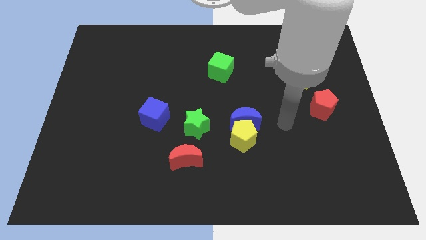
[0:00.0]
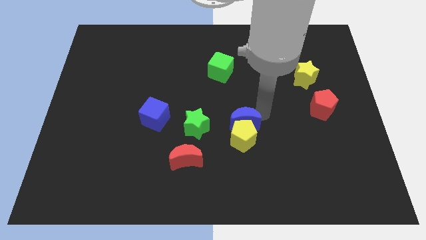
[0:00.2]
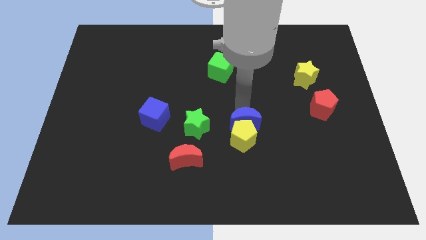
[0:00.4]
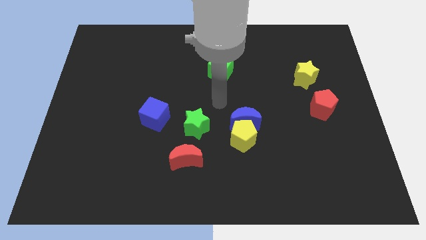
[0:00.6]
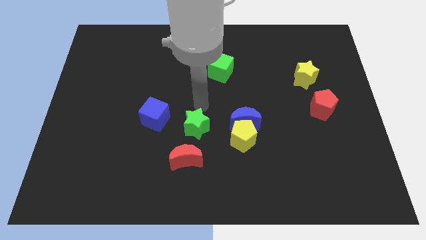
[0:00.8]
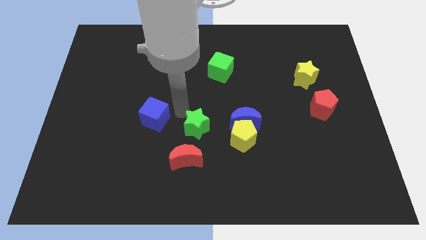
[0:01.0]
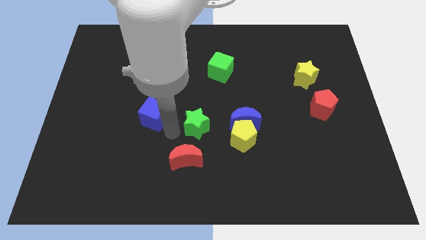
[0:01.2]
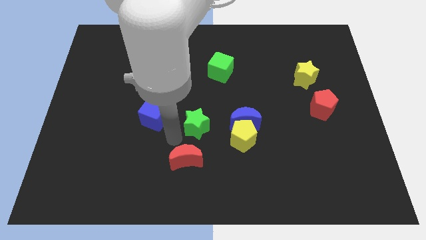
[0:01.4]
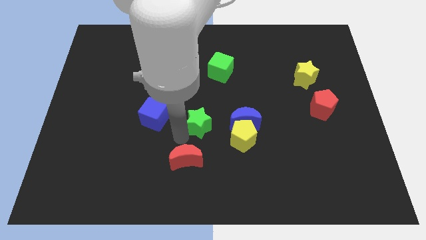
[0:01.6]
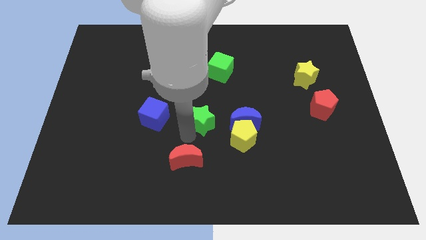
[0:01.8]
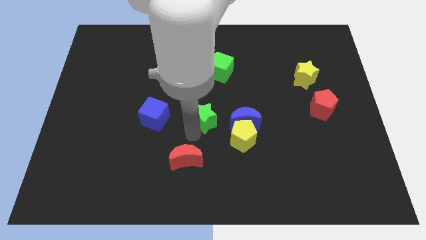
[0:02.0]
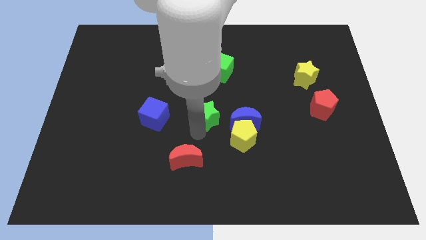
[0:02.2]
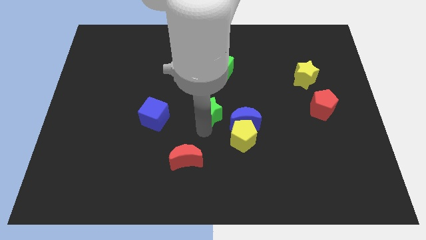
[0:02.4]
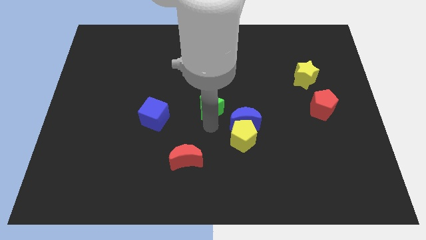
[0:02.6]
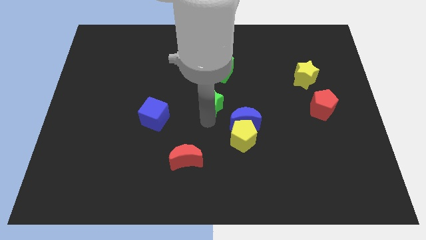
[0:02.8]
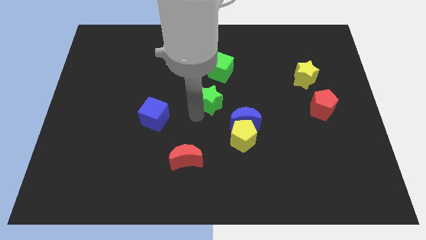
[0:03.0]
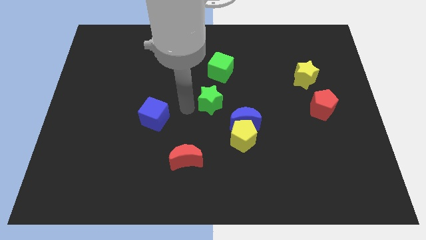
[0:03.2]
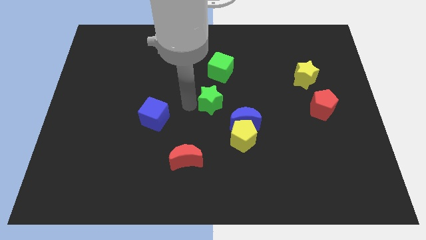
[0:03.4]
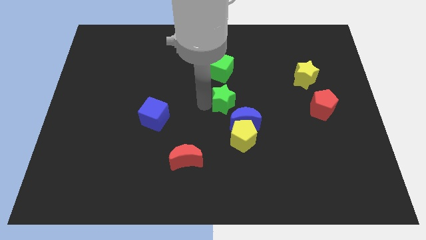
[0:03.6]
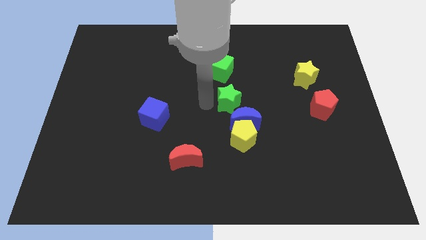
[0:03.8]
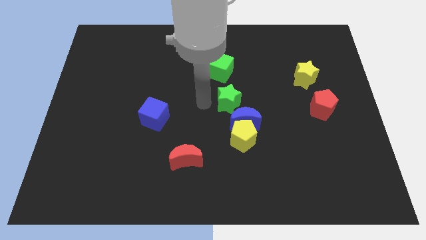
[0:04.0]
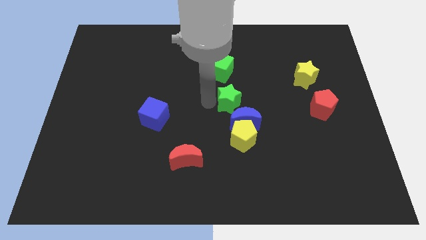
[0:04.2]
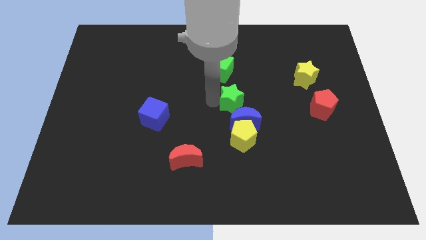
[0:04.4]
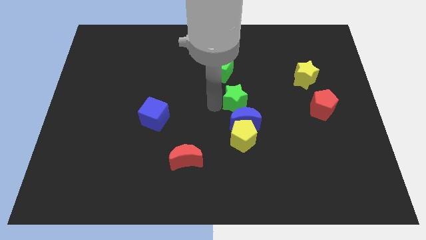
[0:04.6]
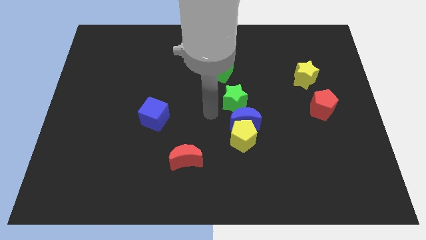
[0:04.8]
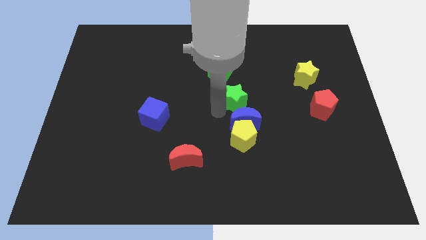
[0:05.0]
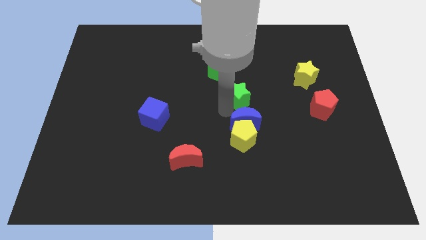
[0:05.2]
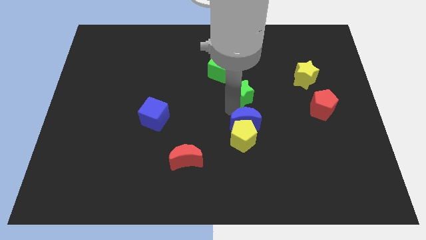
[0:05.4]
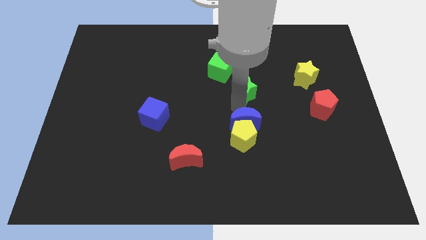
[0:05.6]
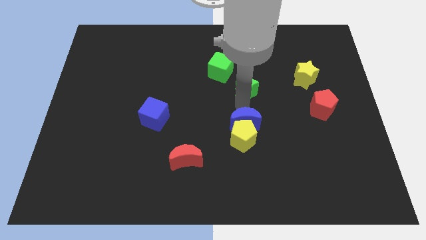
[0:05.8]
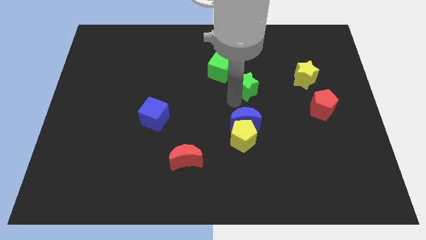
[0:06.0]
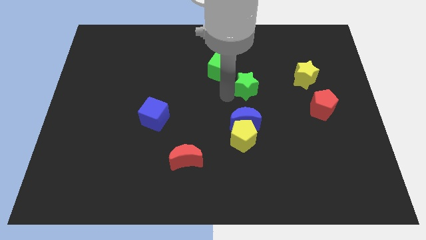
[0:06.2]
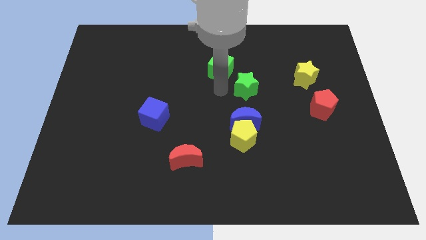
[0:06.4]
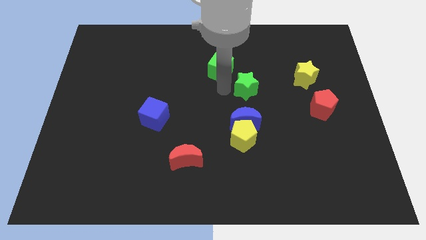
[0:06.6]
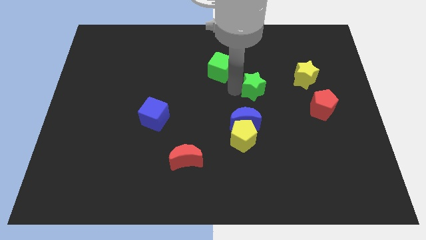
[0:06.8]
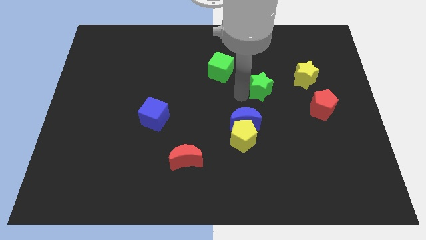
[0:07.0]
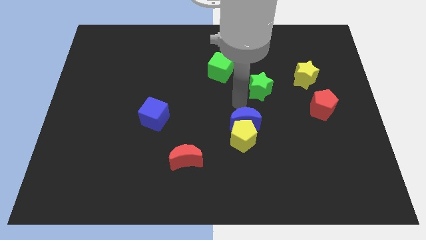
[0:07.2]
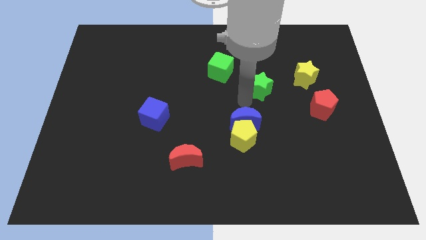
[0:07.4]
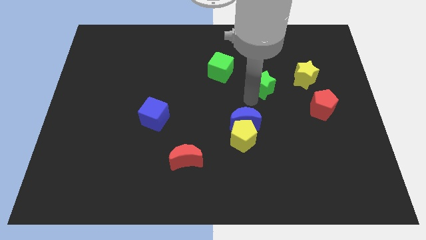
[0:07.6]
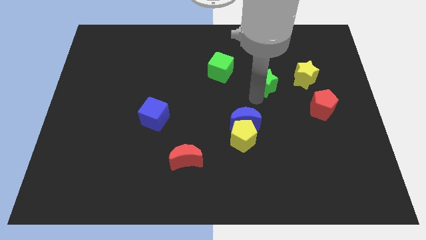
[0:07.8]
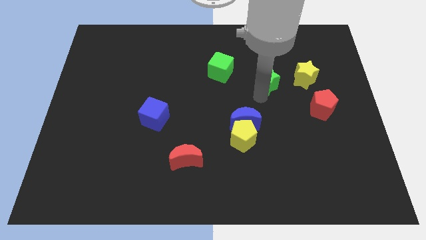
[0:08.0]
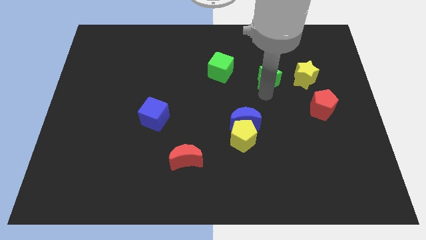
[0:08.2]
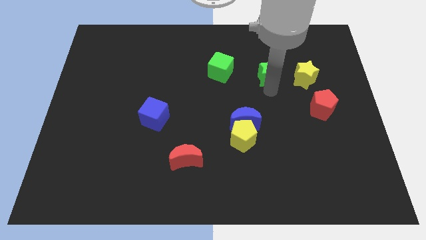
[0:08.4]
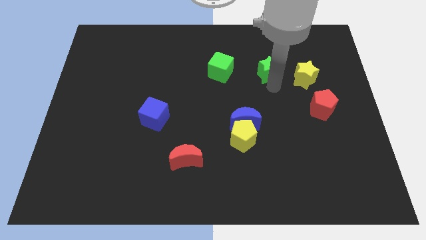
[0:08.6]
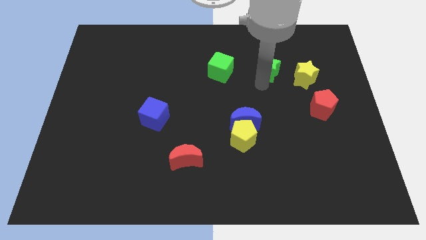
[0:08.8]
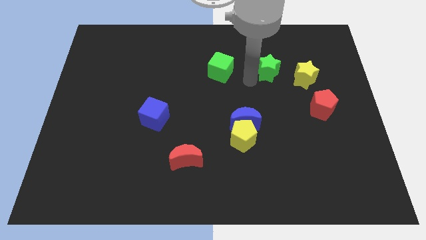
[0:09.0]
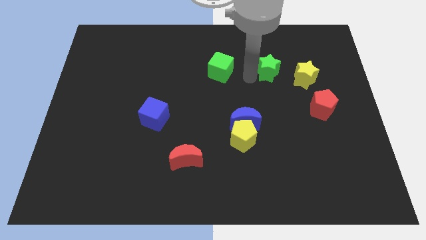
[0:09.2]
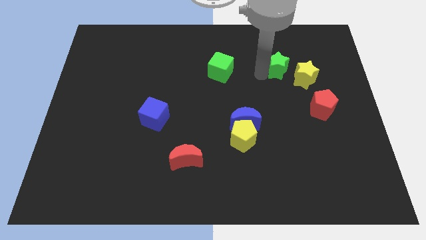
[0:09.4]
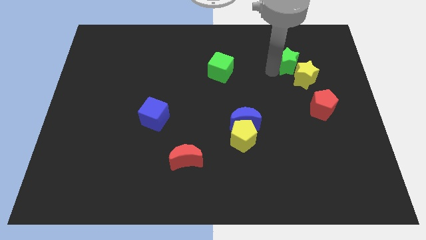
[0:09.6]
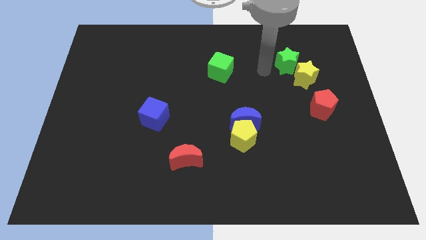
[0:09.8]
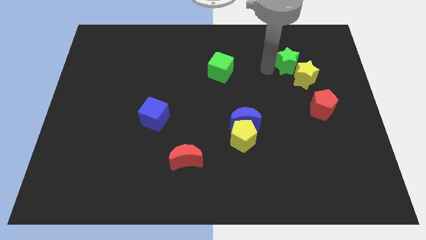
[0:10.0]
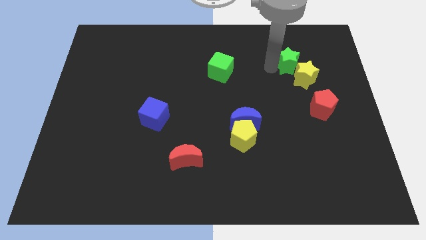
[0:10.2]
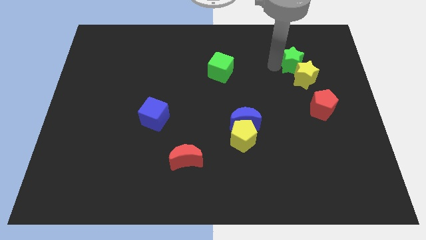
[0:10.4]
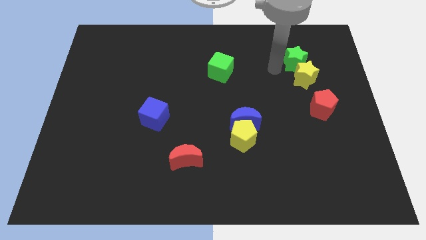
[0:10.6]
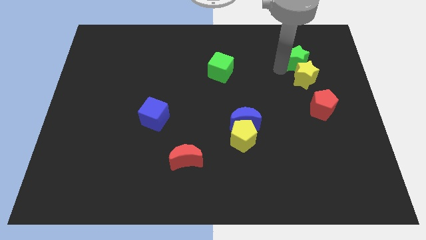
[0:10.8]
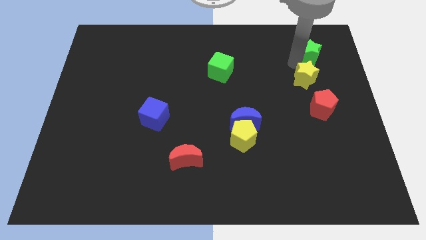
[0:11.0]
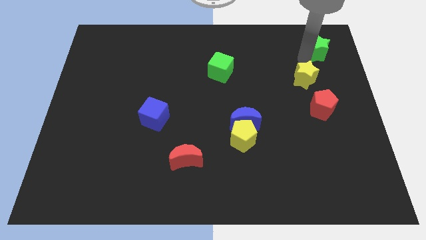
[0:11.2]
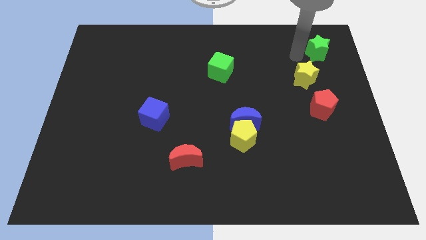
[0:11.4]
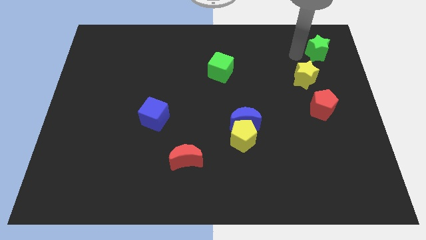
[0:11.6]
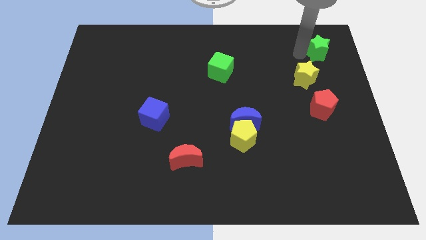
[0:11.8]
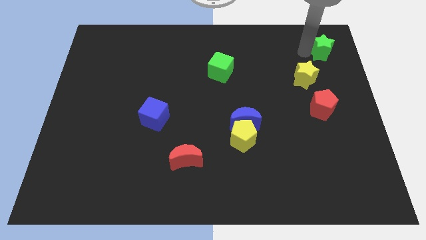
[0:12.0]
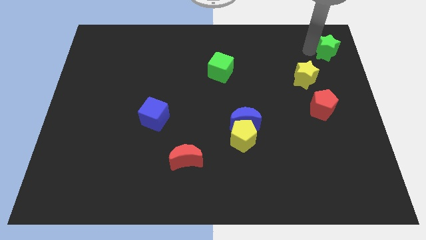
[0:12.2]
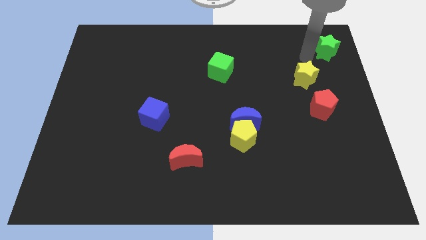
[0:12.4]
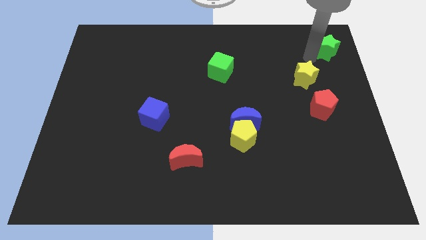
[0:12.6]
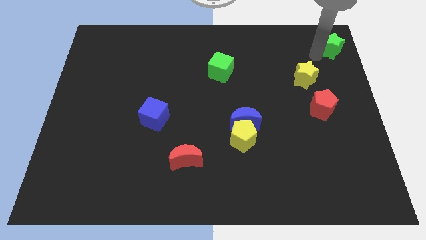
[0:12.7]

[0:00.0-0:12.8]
move the green star to the top right
